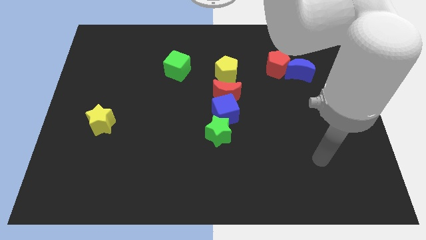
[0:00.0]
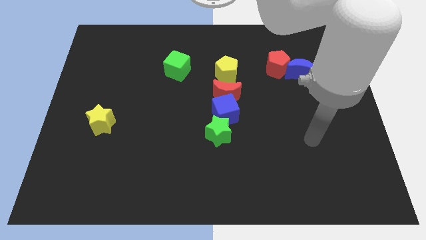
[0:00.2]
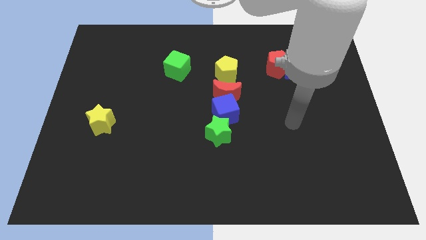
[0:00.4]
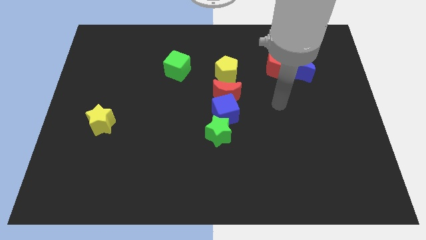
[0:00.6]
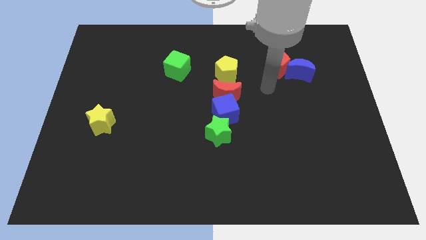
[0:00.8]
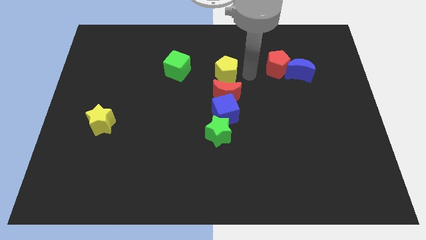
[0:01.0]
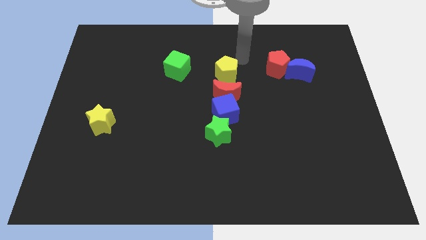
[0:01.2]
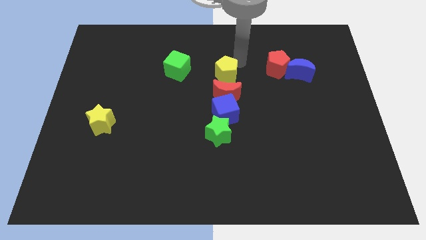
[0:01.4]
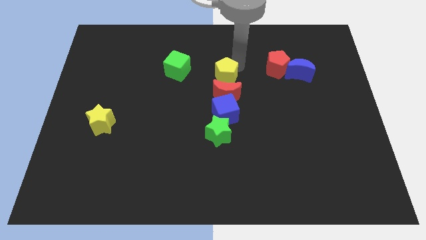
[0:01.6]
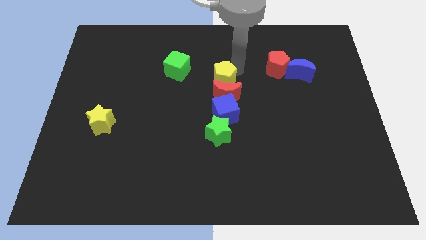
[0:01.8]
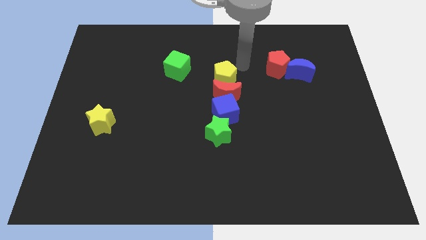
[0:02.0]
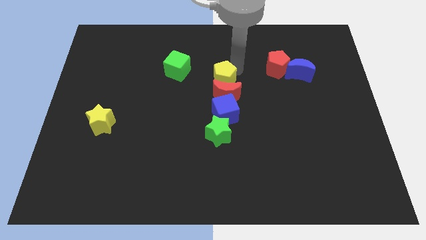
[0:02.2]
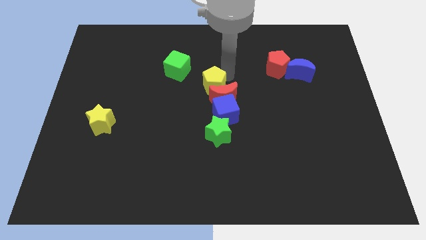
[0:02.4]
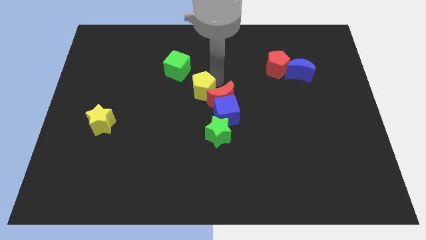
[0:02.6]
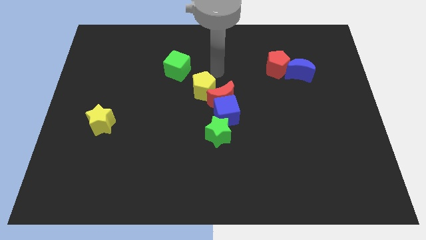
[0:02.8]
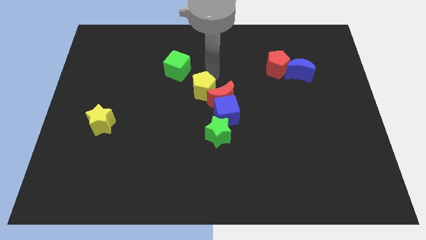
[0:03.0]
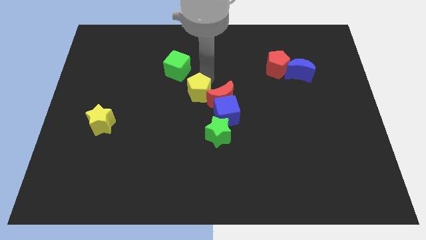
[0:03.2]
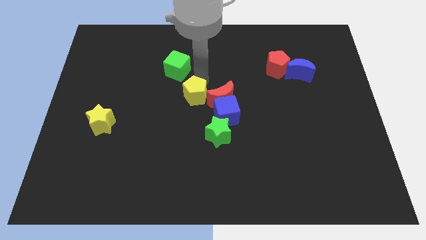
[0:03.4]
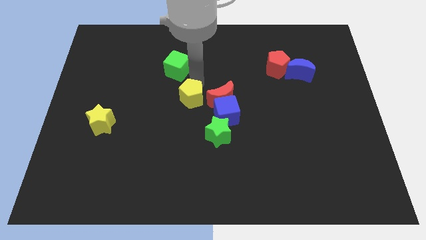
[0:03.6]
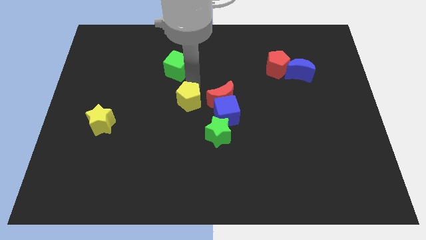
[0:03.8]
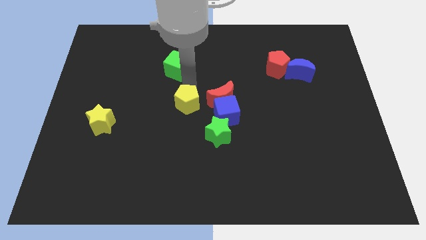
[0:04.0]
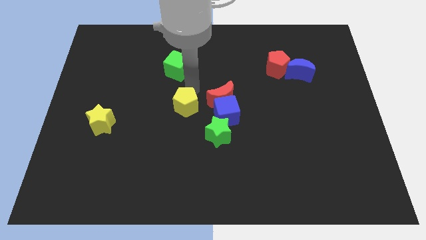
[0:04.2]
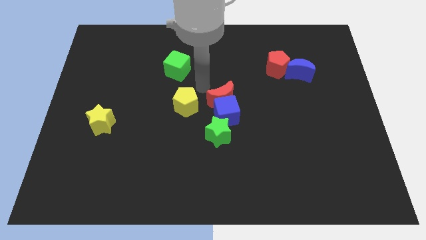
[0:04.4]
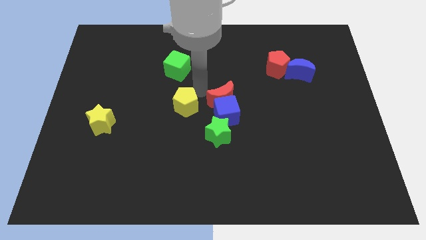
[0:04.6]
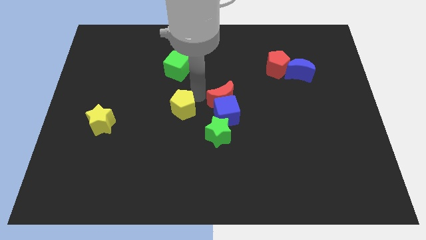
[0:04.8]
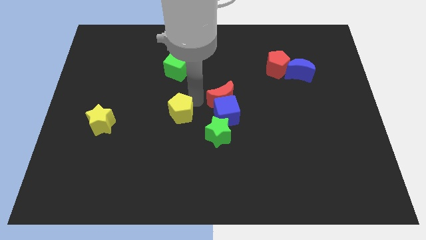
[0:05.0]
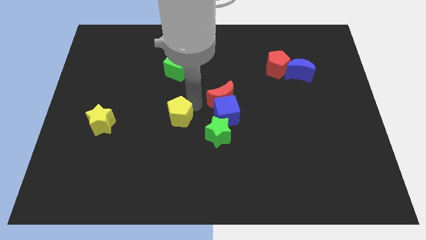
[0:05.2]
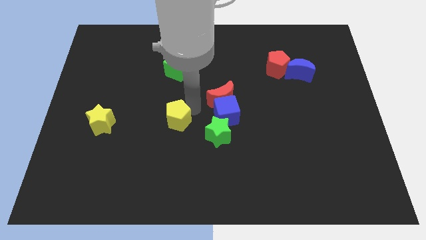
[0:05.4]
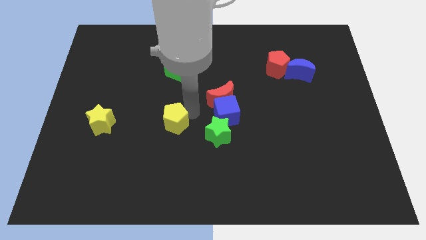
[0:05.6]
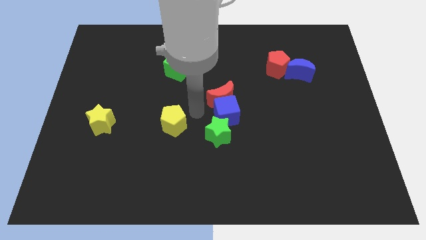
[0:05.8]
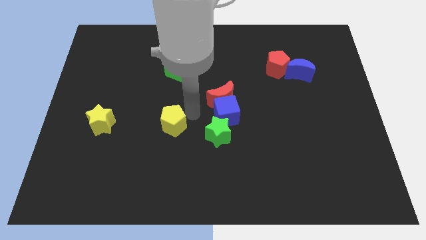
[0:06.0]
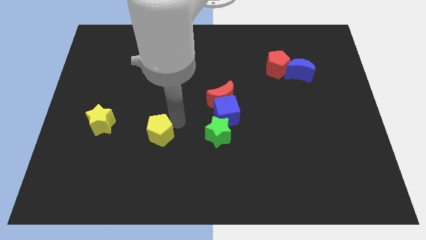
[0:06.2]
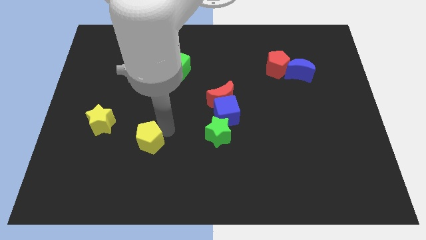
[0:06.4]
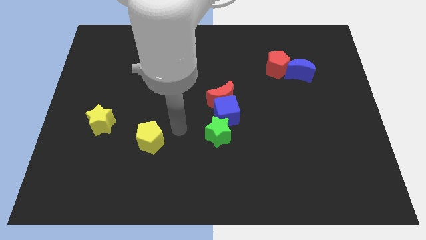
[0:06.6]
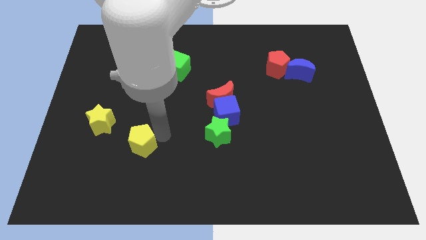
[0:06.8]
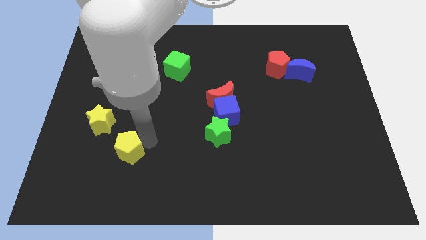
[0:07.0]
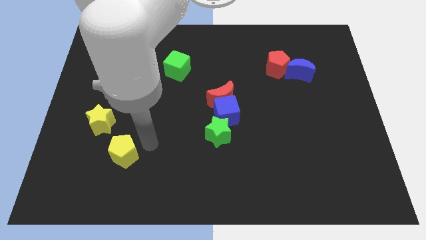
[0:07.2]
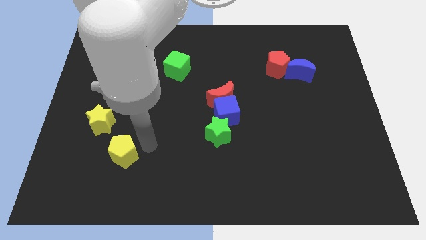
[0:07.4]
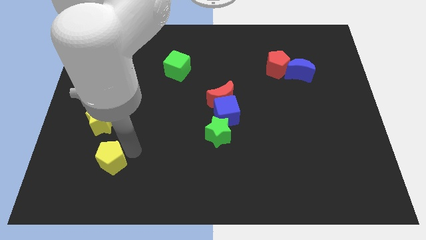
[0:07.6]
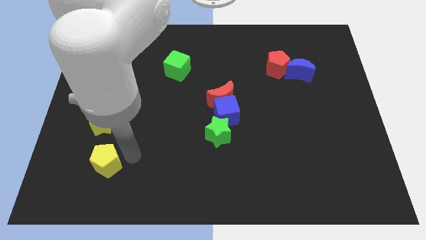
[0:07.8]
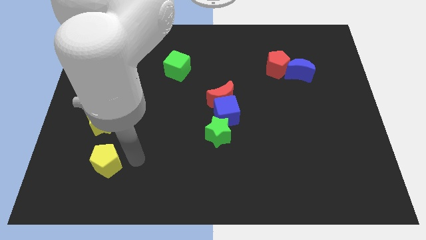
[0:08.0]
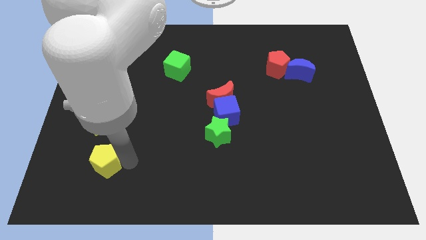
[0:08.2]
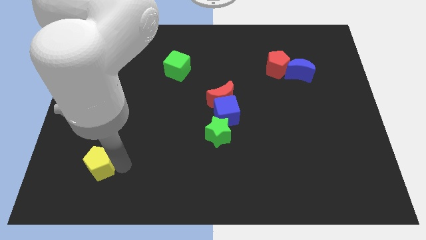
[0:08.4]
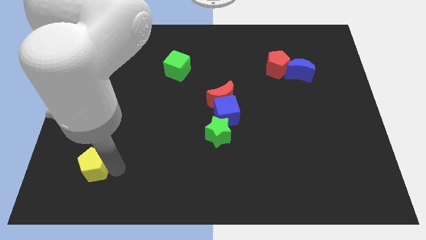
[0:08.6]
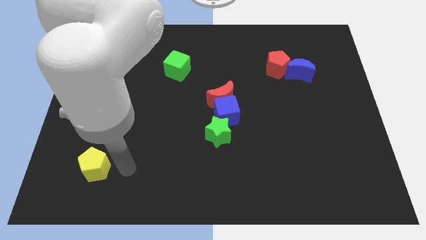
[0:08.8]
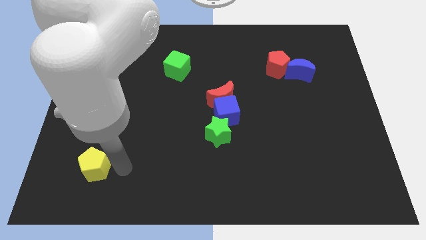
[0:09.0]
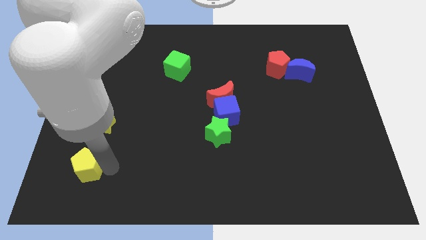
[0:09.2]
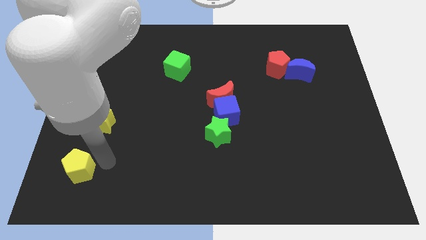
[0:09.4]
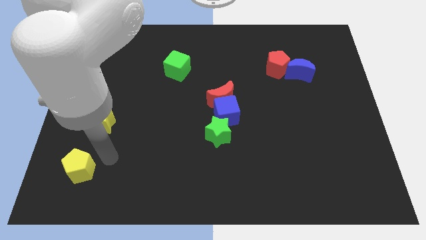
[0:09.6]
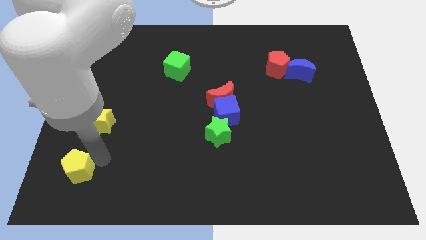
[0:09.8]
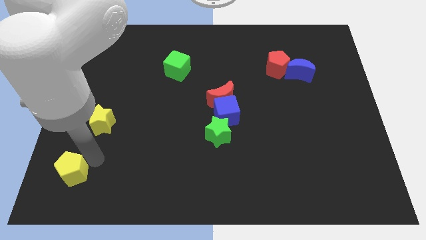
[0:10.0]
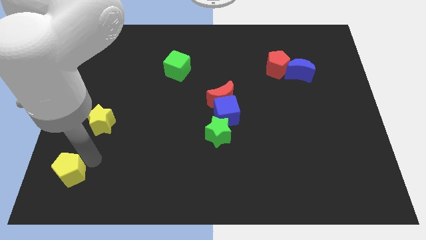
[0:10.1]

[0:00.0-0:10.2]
slide the yellow pentagon to the bottom left

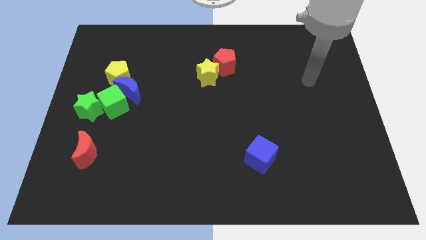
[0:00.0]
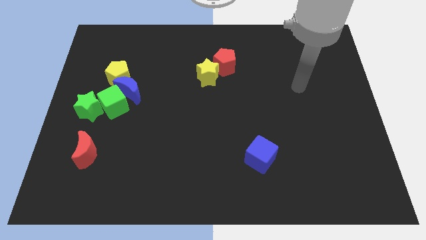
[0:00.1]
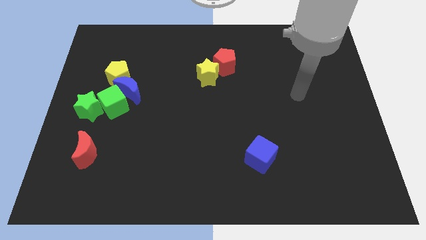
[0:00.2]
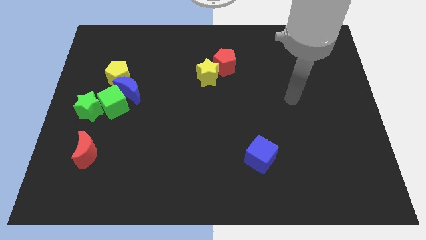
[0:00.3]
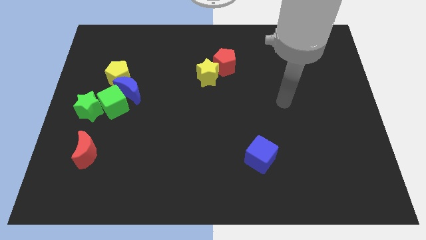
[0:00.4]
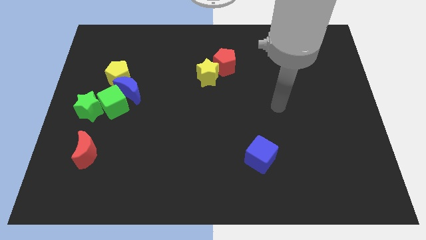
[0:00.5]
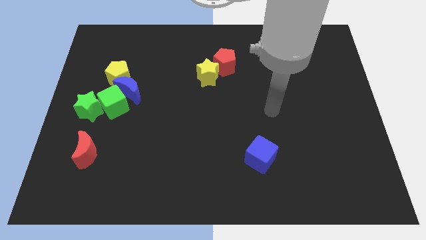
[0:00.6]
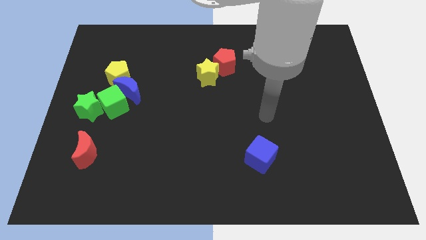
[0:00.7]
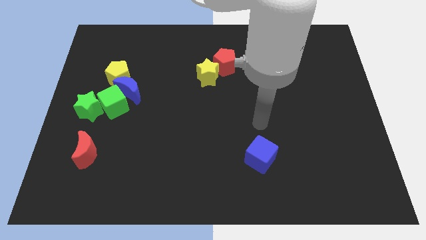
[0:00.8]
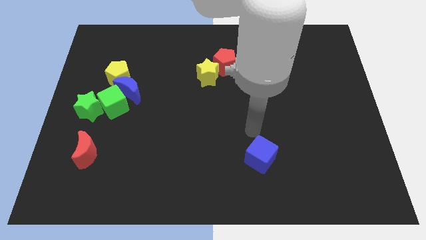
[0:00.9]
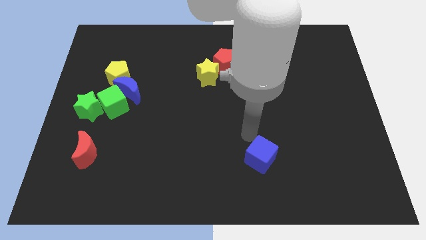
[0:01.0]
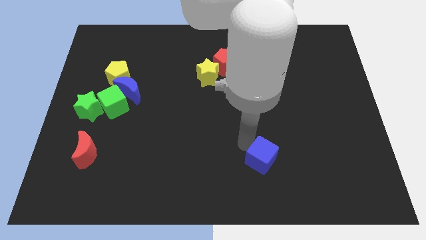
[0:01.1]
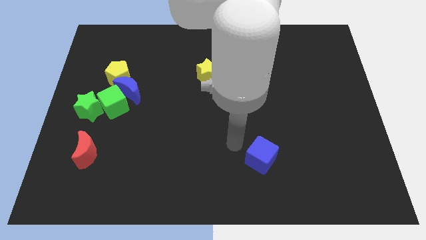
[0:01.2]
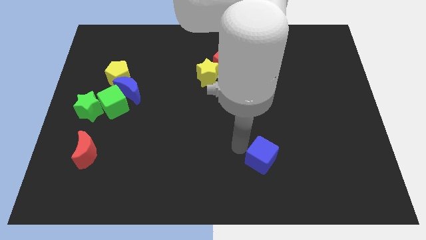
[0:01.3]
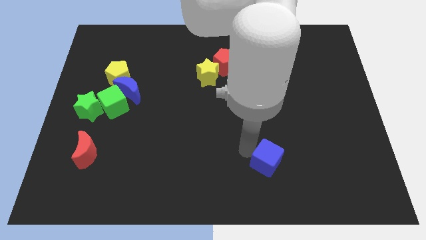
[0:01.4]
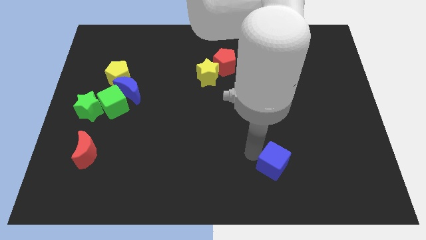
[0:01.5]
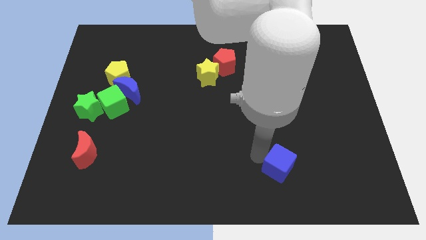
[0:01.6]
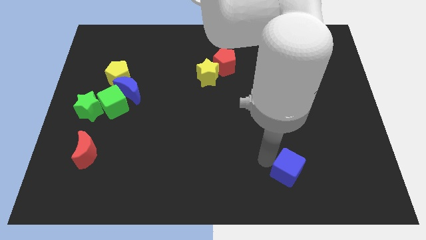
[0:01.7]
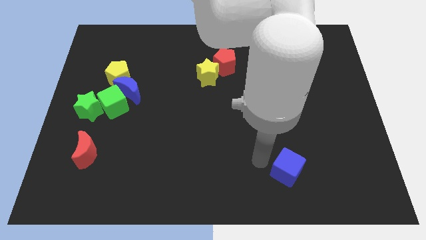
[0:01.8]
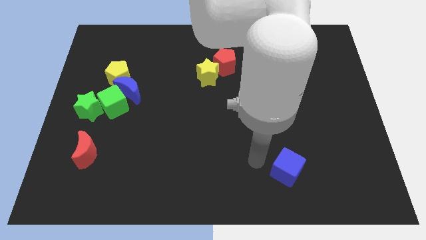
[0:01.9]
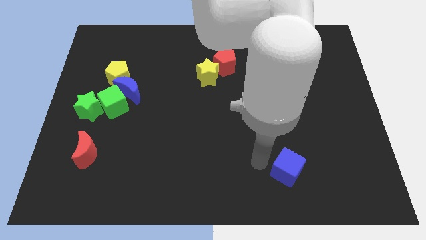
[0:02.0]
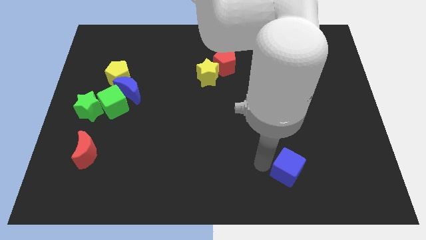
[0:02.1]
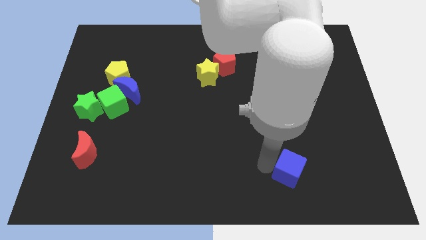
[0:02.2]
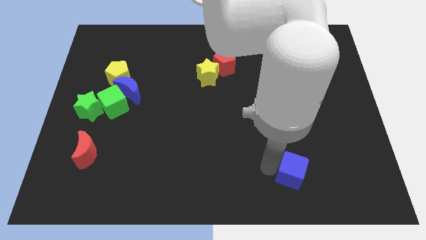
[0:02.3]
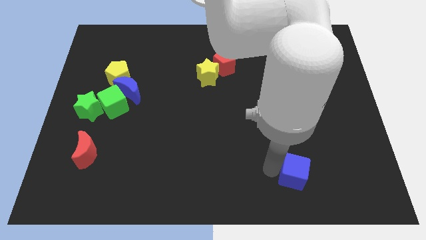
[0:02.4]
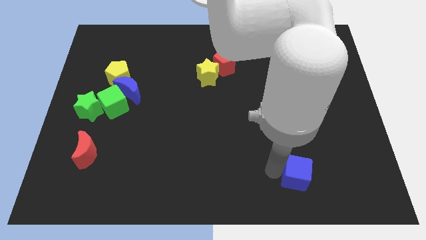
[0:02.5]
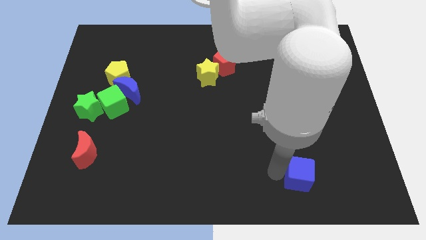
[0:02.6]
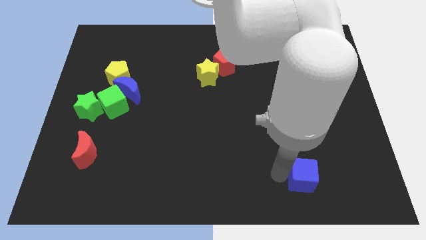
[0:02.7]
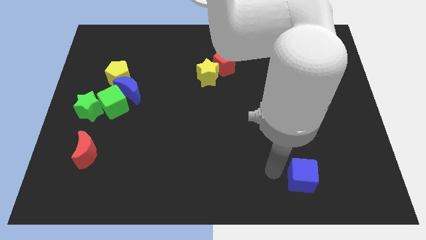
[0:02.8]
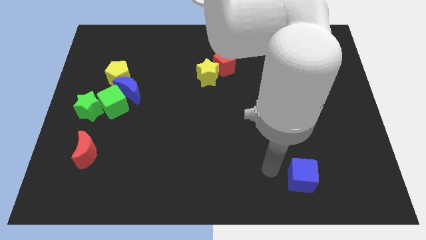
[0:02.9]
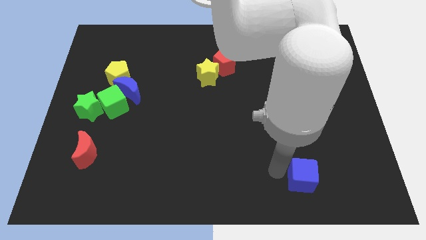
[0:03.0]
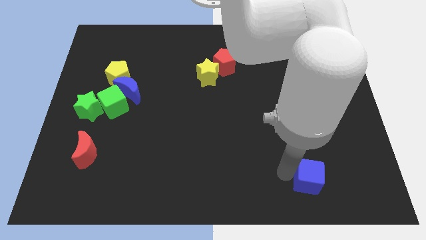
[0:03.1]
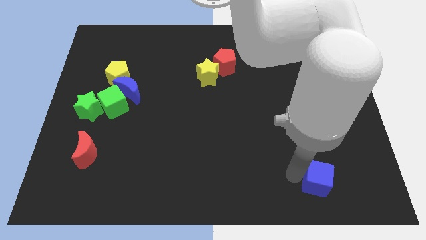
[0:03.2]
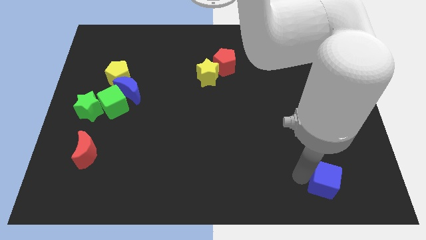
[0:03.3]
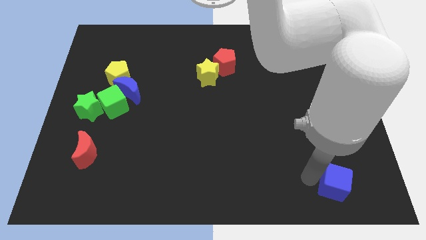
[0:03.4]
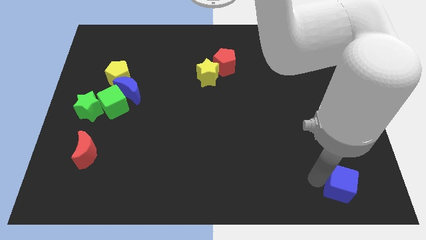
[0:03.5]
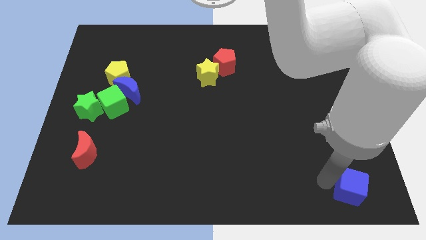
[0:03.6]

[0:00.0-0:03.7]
push the blue cube to the lower right corner
